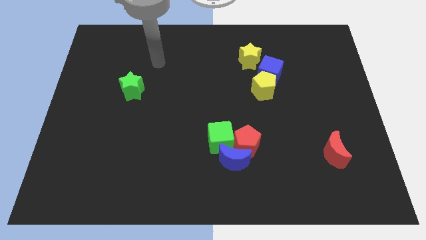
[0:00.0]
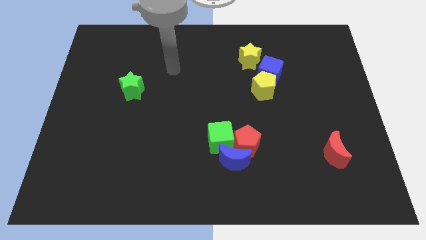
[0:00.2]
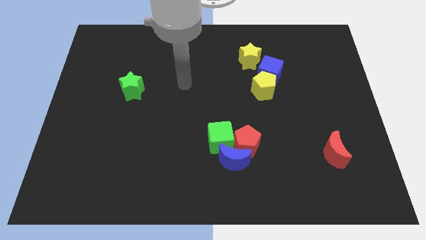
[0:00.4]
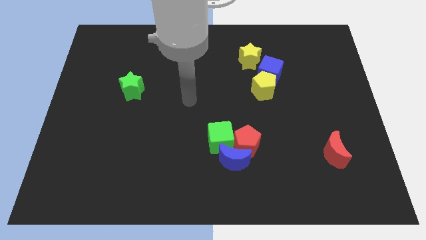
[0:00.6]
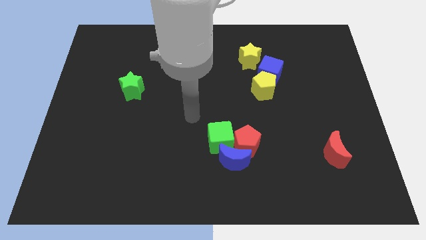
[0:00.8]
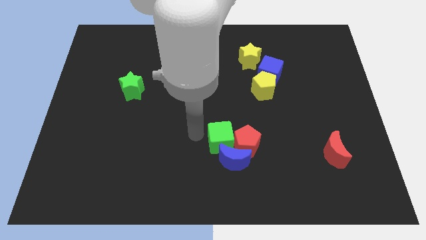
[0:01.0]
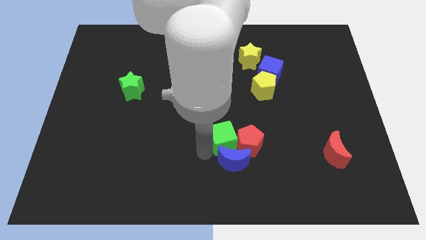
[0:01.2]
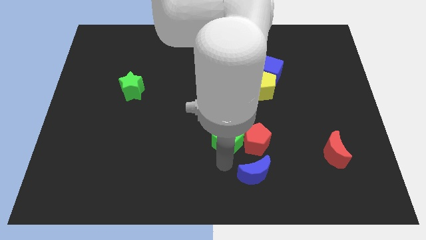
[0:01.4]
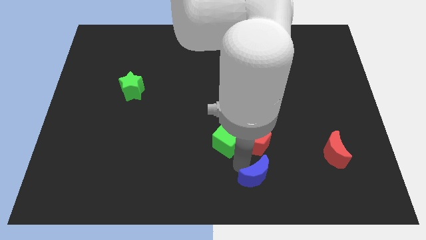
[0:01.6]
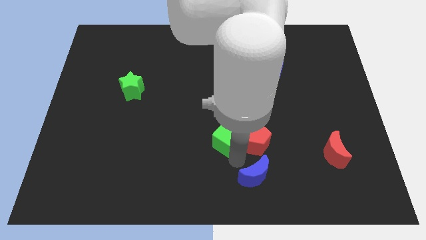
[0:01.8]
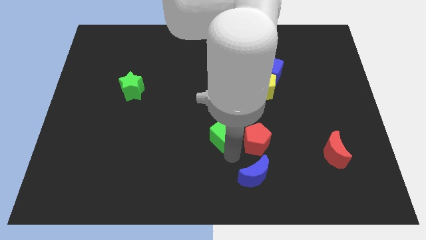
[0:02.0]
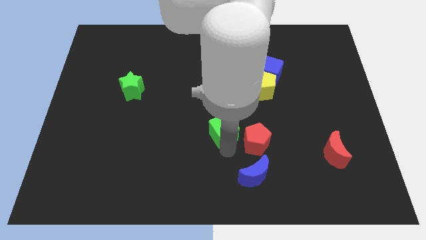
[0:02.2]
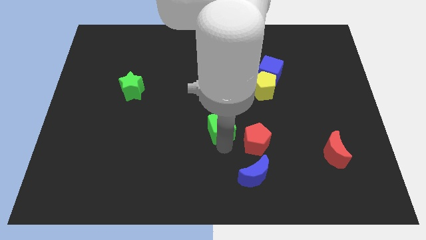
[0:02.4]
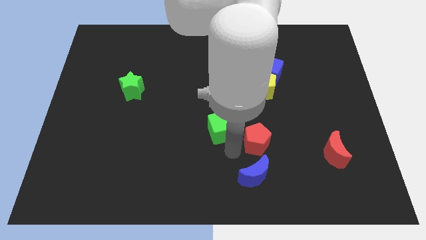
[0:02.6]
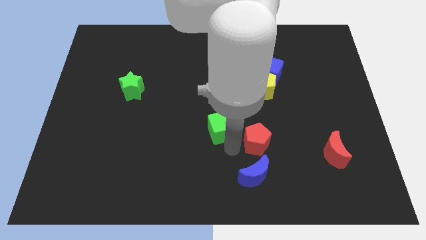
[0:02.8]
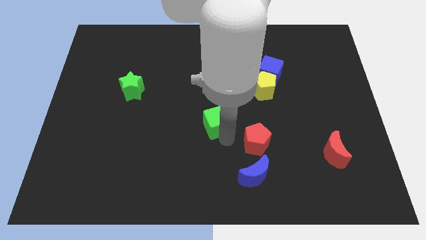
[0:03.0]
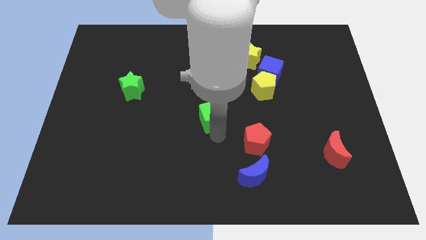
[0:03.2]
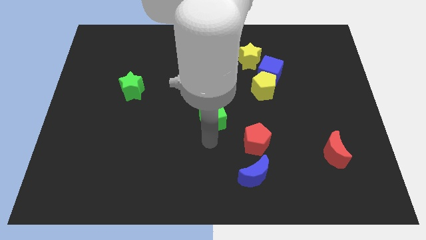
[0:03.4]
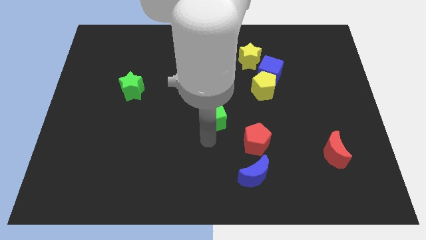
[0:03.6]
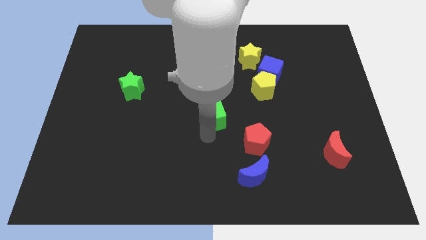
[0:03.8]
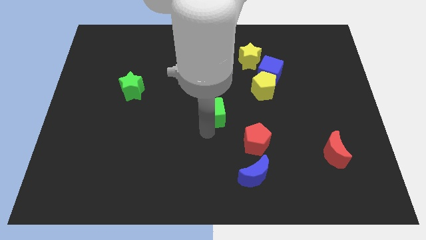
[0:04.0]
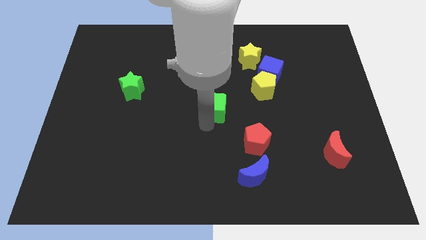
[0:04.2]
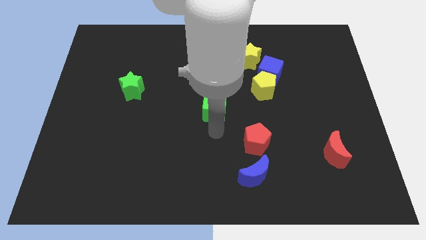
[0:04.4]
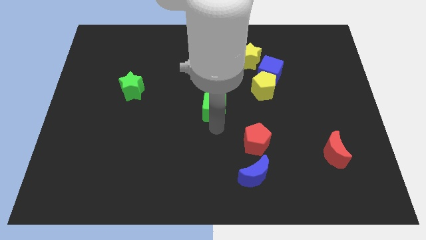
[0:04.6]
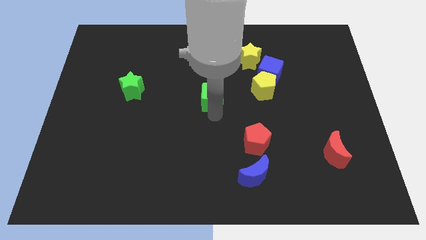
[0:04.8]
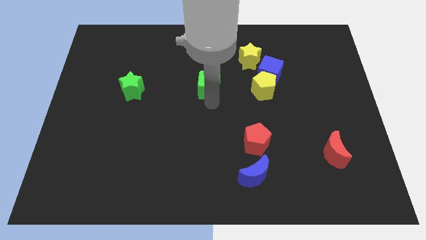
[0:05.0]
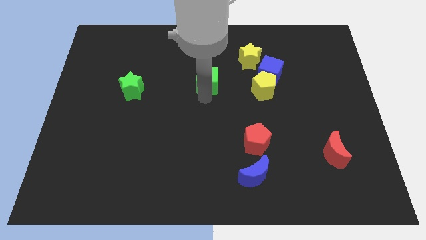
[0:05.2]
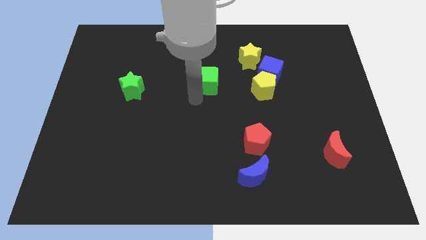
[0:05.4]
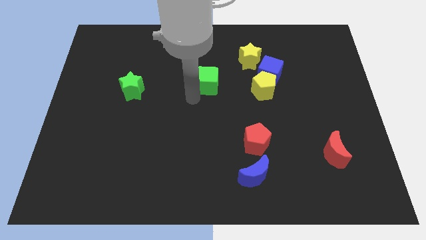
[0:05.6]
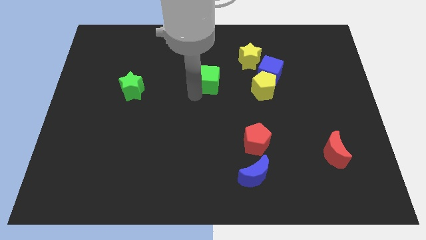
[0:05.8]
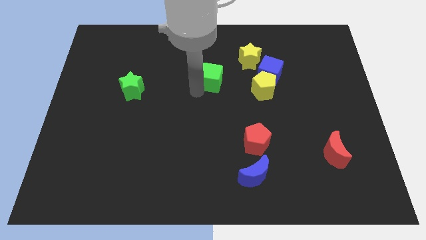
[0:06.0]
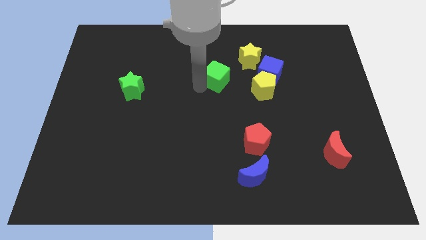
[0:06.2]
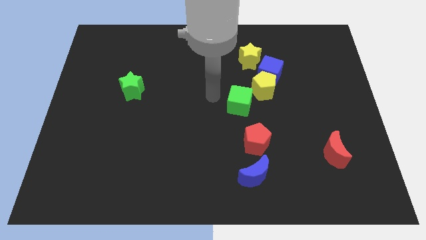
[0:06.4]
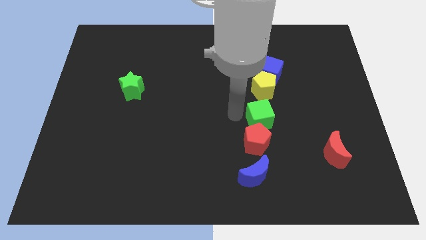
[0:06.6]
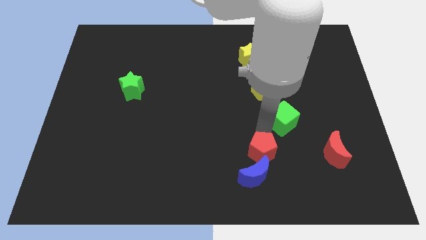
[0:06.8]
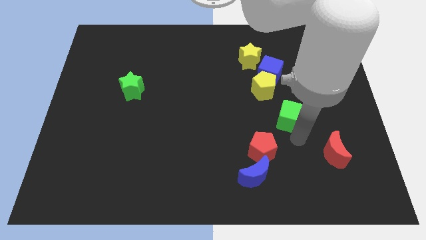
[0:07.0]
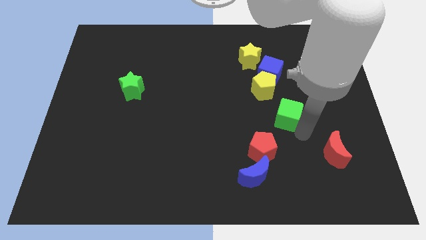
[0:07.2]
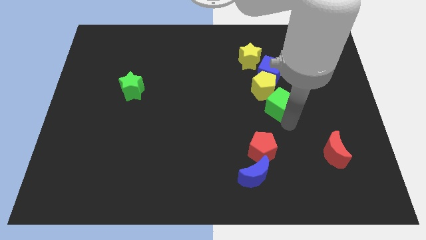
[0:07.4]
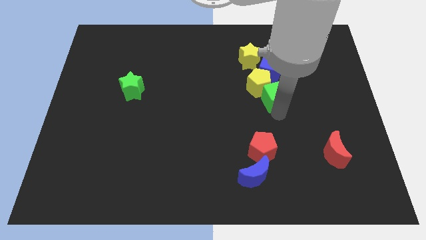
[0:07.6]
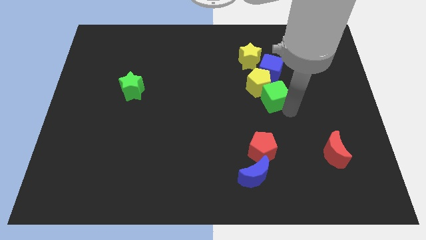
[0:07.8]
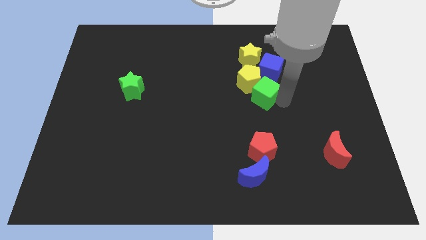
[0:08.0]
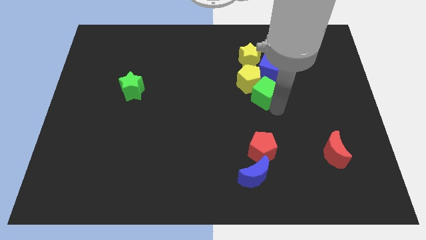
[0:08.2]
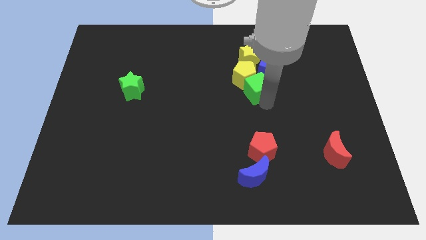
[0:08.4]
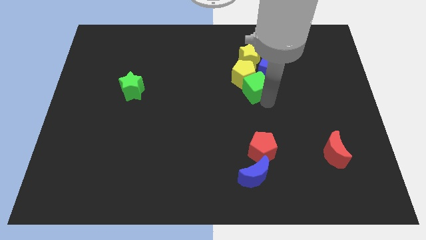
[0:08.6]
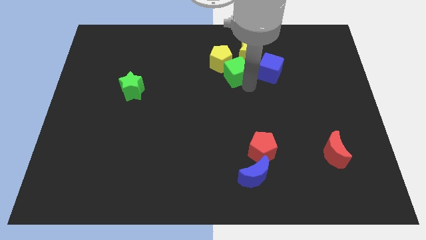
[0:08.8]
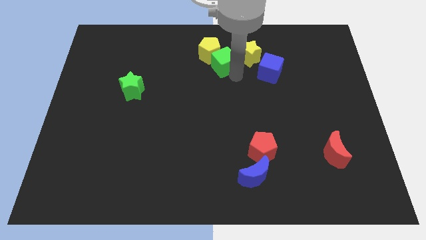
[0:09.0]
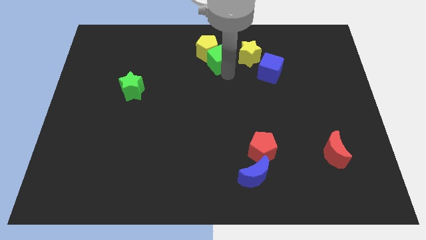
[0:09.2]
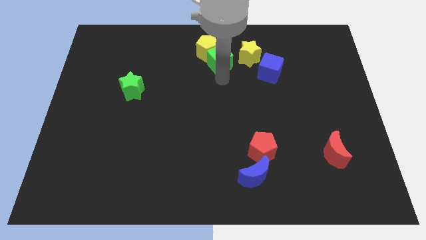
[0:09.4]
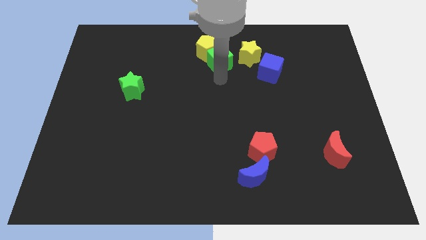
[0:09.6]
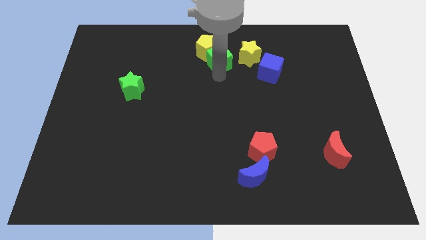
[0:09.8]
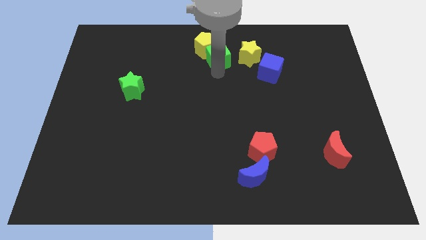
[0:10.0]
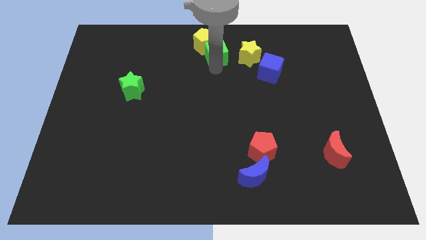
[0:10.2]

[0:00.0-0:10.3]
move the green cube to the towards your base

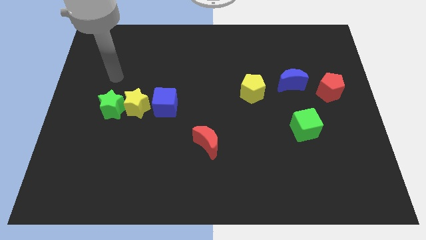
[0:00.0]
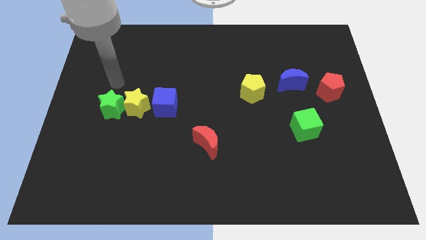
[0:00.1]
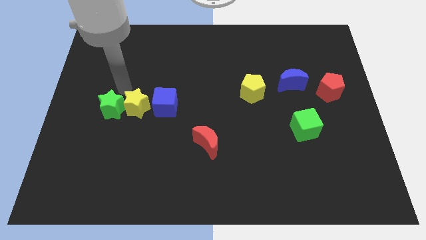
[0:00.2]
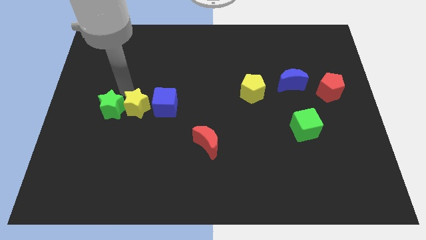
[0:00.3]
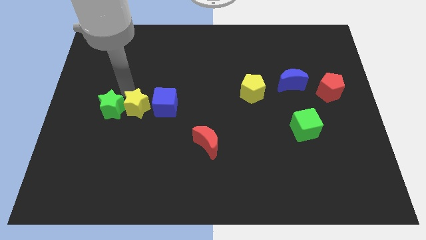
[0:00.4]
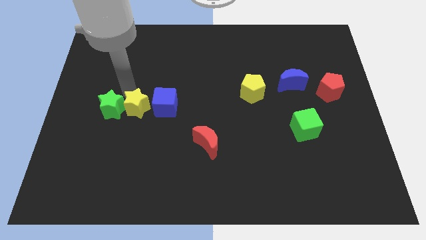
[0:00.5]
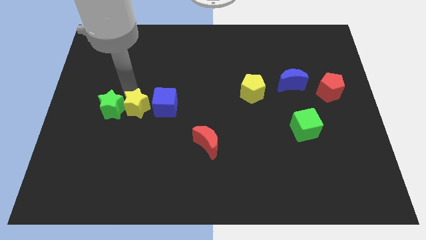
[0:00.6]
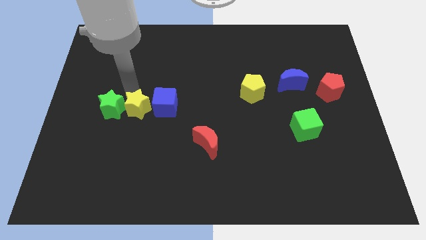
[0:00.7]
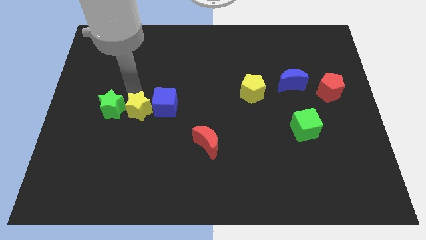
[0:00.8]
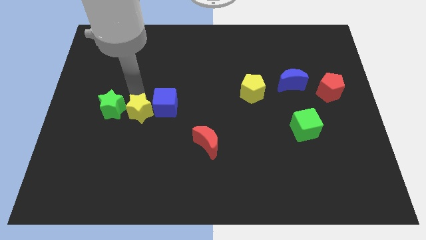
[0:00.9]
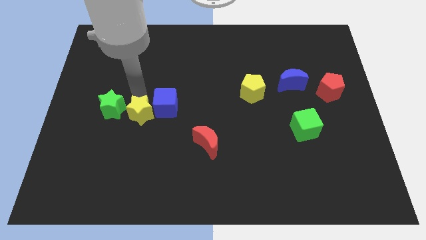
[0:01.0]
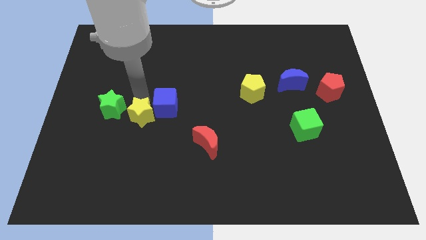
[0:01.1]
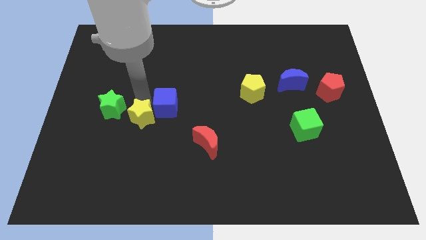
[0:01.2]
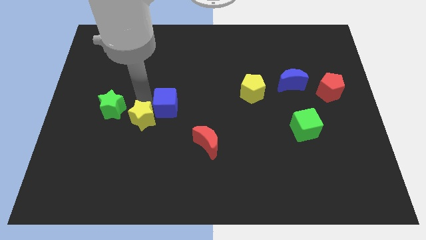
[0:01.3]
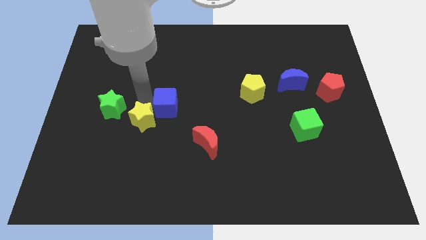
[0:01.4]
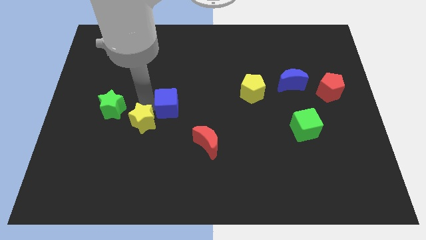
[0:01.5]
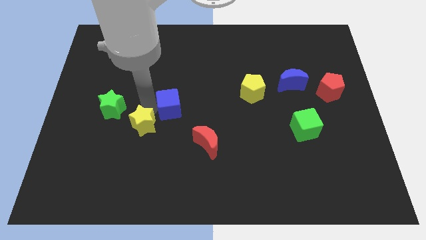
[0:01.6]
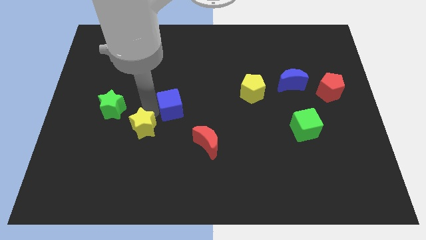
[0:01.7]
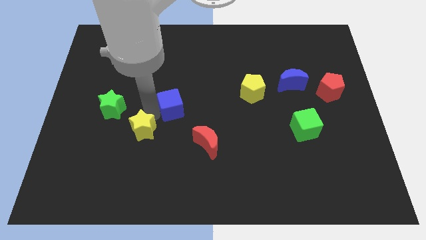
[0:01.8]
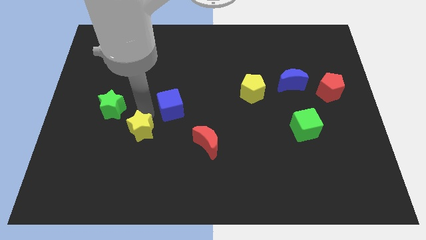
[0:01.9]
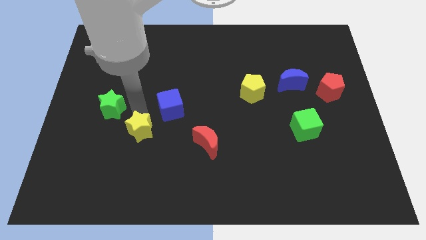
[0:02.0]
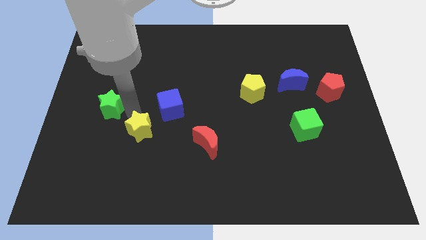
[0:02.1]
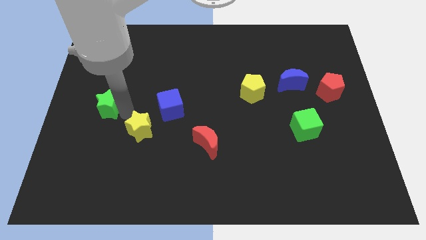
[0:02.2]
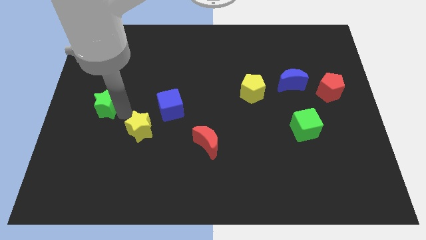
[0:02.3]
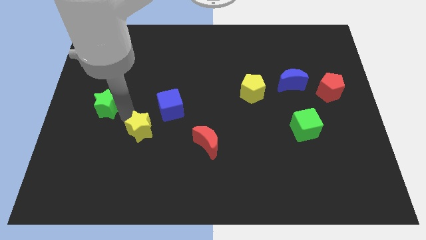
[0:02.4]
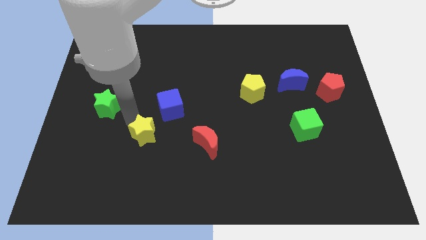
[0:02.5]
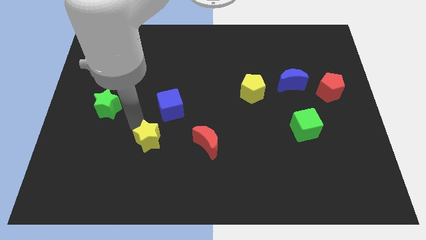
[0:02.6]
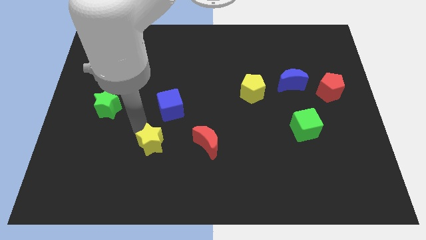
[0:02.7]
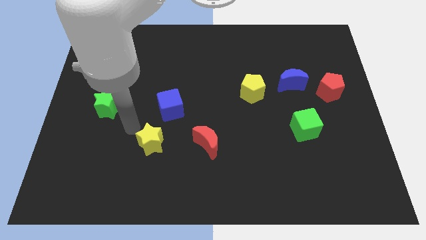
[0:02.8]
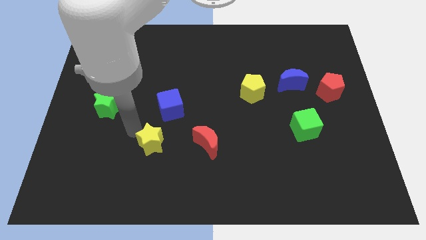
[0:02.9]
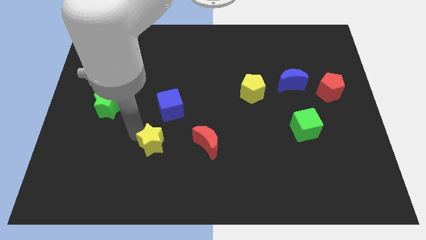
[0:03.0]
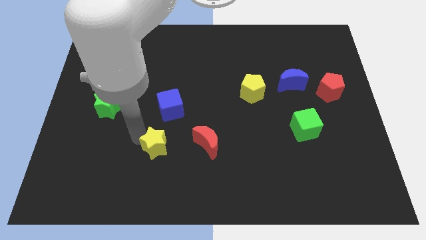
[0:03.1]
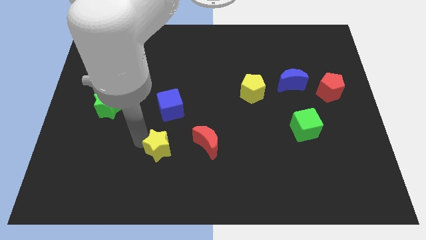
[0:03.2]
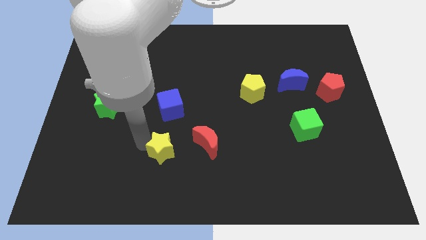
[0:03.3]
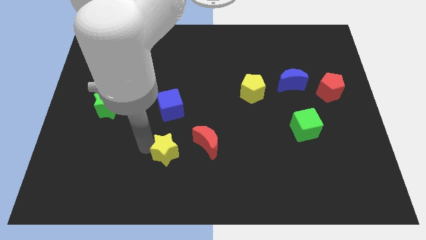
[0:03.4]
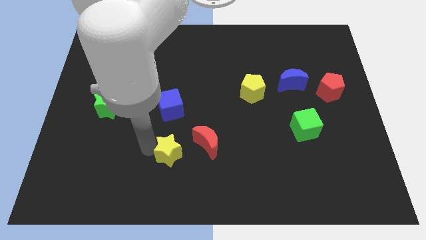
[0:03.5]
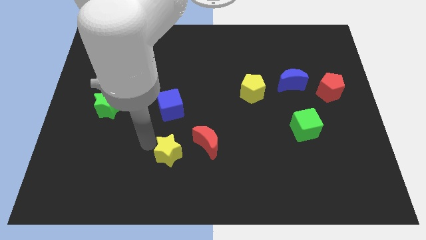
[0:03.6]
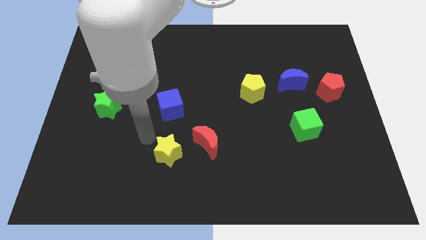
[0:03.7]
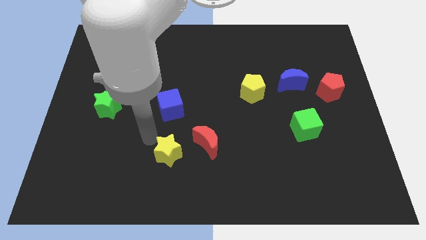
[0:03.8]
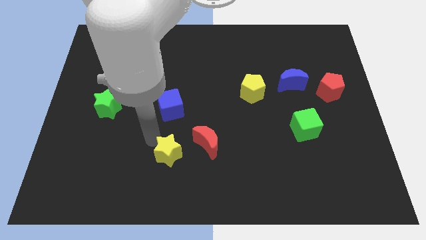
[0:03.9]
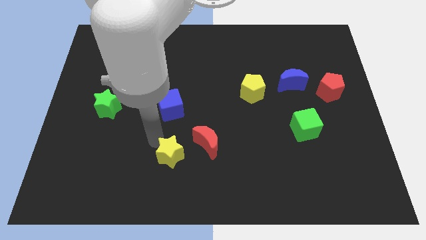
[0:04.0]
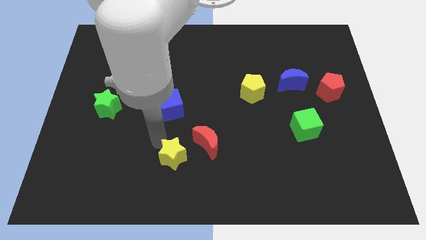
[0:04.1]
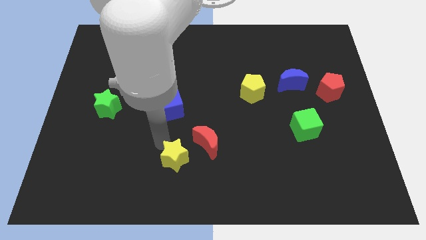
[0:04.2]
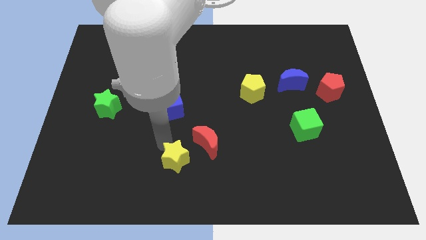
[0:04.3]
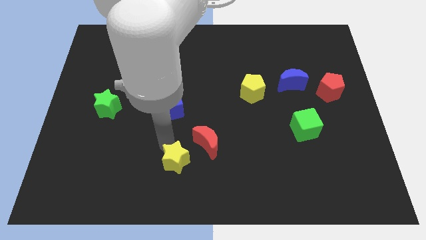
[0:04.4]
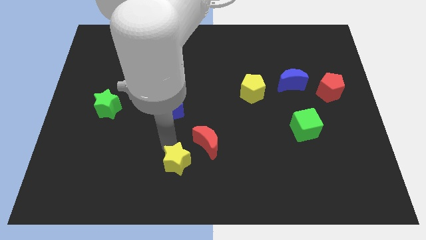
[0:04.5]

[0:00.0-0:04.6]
put the yellow star to the bottom side
